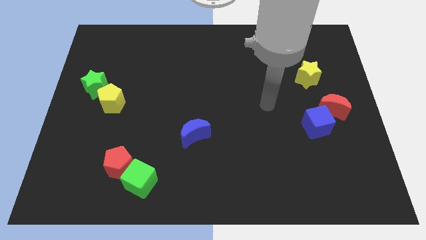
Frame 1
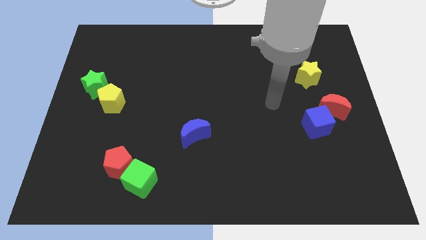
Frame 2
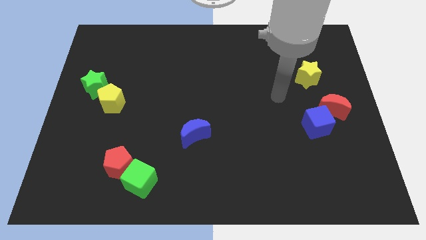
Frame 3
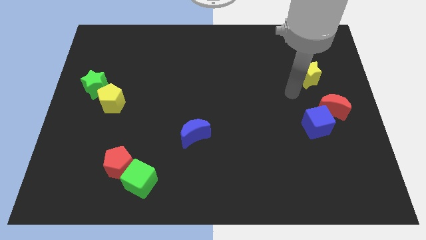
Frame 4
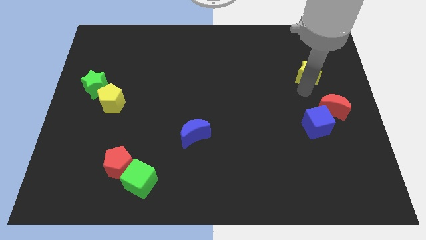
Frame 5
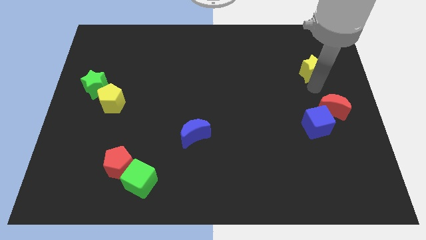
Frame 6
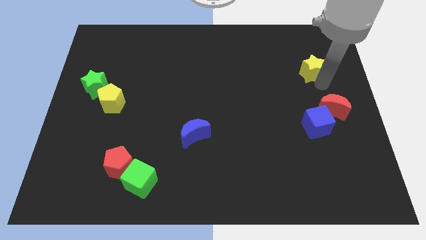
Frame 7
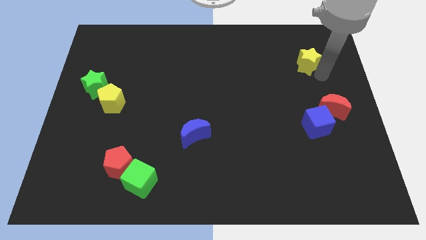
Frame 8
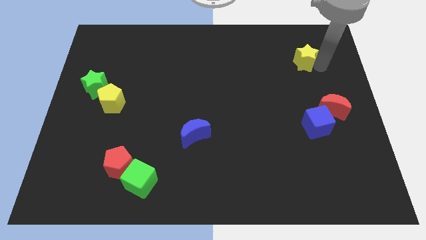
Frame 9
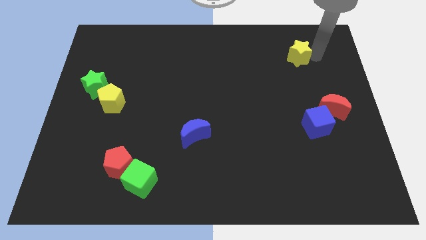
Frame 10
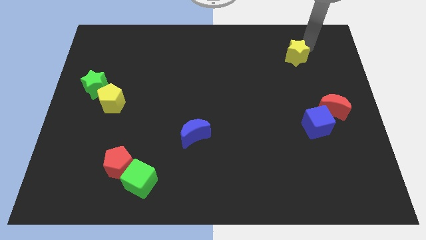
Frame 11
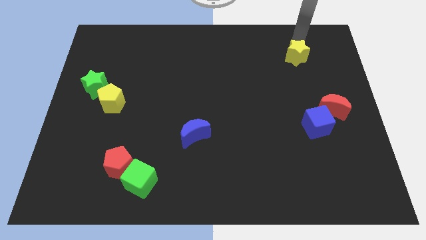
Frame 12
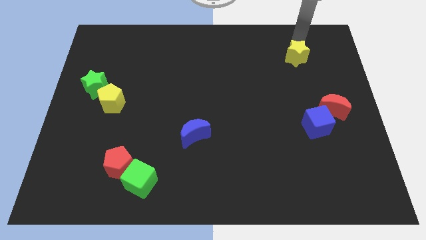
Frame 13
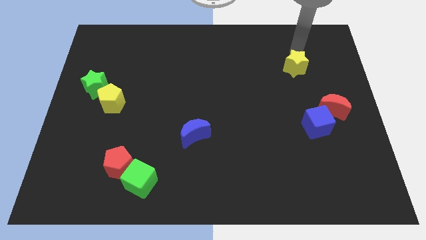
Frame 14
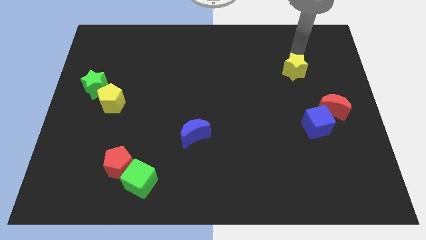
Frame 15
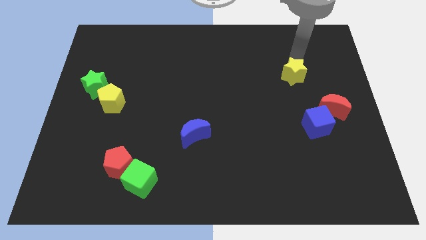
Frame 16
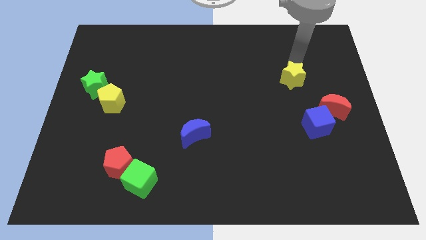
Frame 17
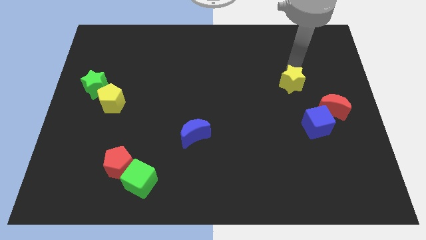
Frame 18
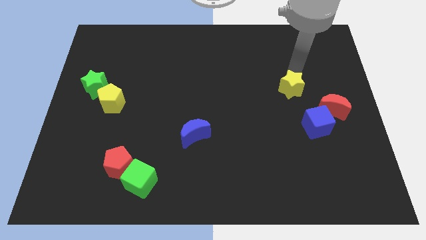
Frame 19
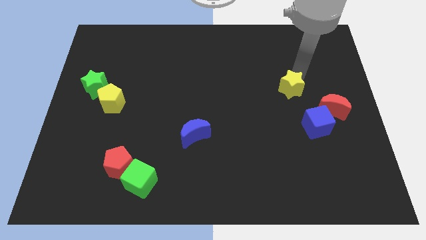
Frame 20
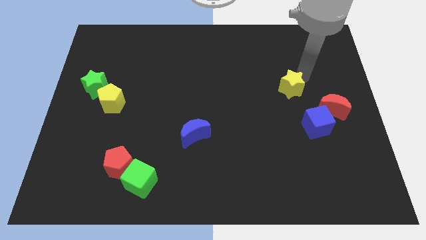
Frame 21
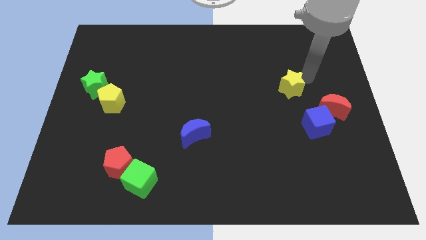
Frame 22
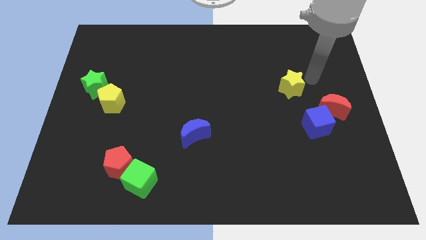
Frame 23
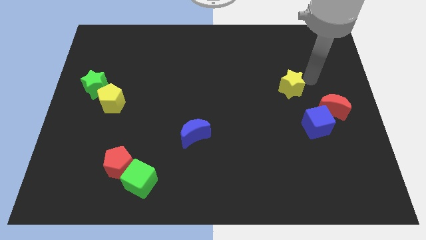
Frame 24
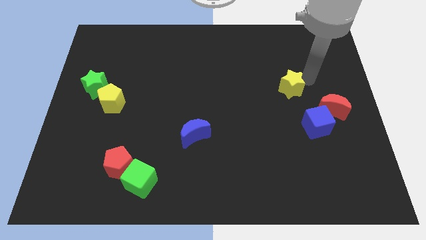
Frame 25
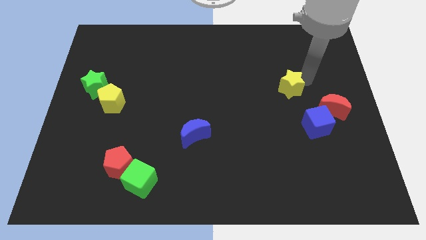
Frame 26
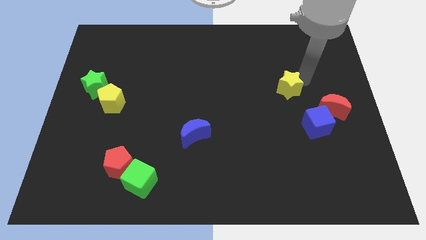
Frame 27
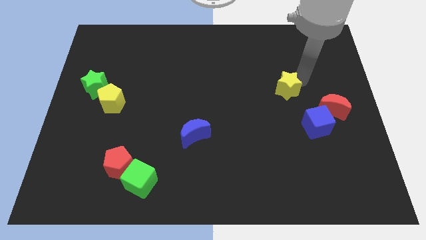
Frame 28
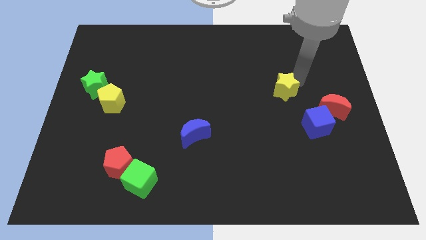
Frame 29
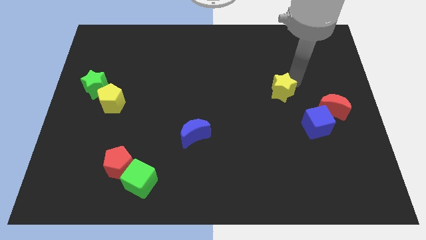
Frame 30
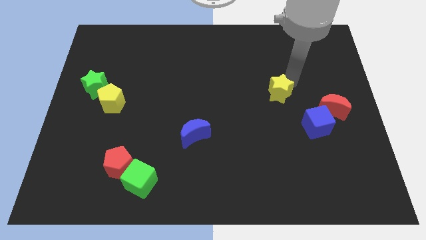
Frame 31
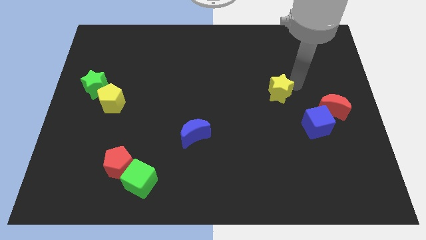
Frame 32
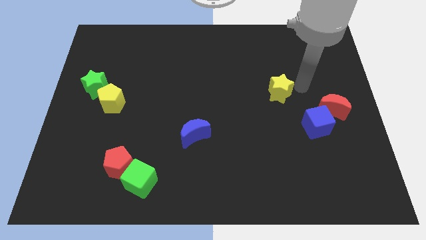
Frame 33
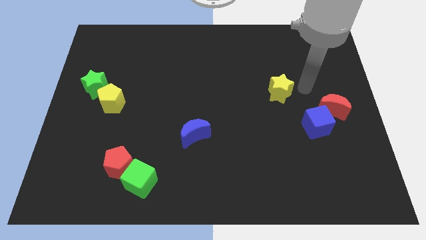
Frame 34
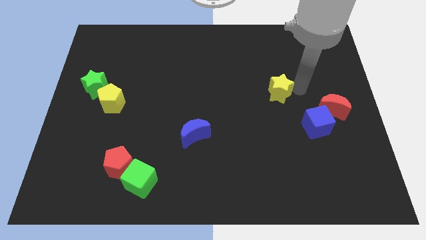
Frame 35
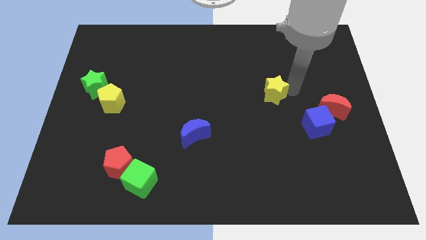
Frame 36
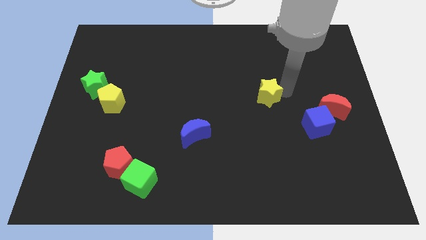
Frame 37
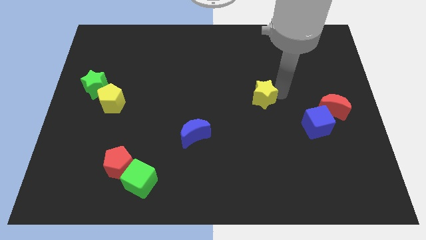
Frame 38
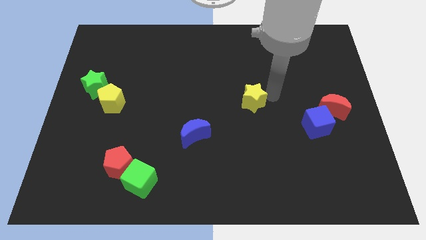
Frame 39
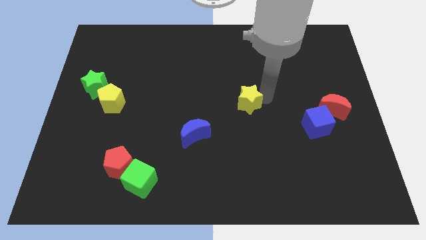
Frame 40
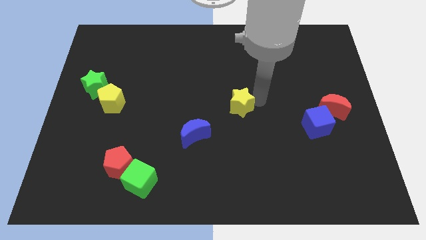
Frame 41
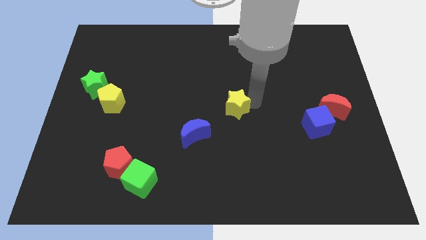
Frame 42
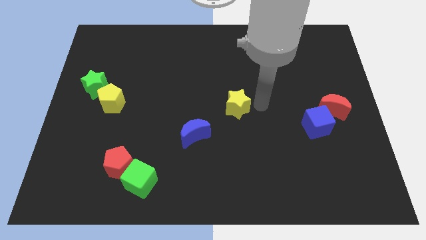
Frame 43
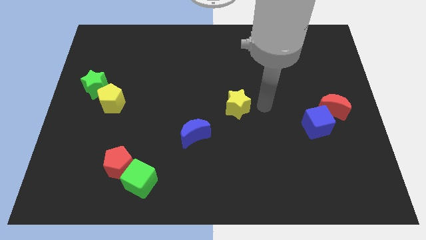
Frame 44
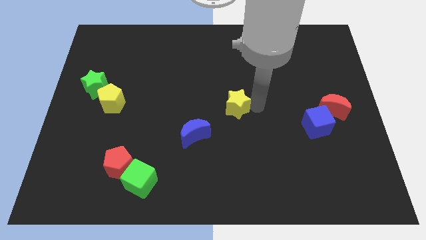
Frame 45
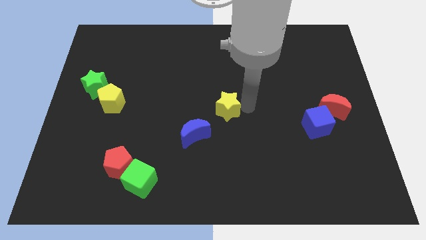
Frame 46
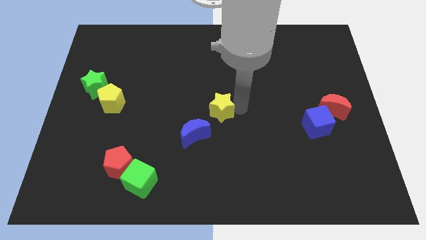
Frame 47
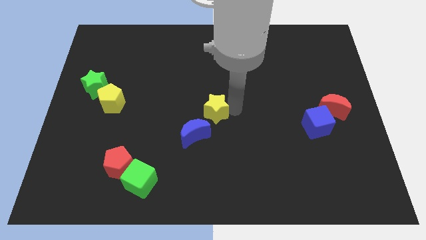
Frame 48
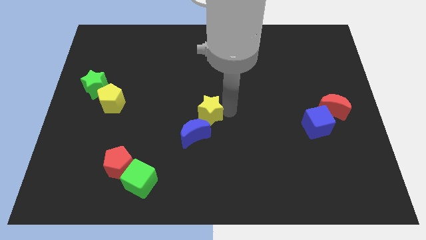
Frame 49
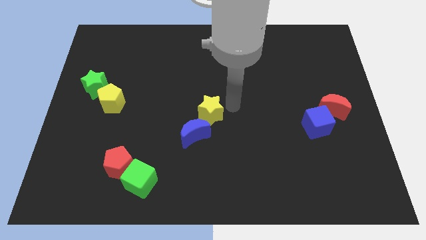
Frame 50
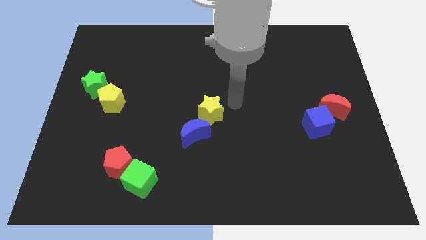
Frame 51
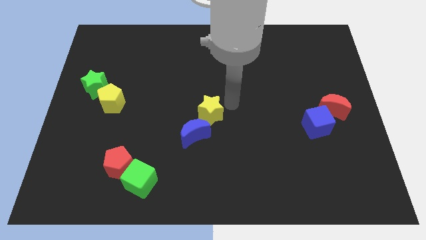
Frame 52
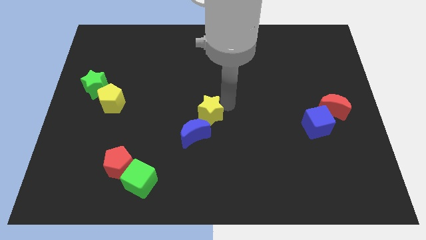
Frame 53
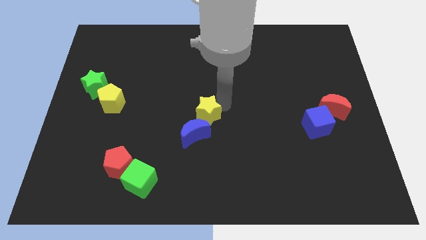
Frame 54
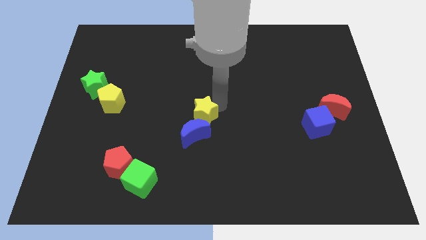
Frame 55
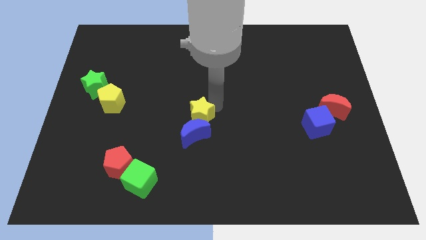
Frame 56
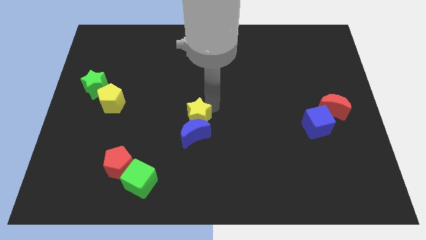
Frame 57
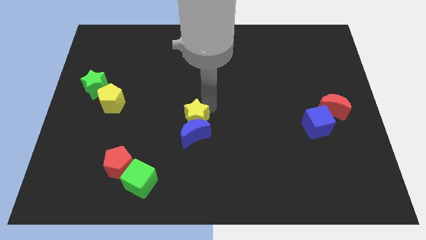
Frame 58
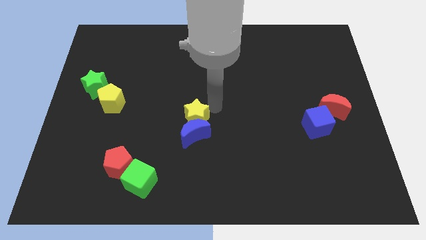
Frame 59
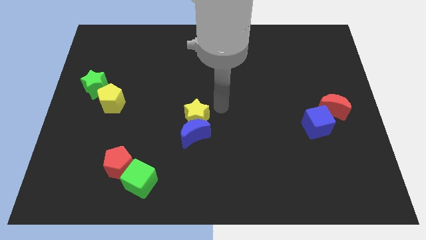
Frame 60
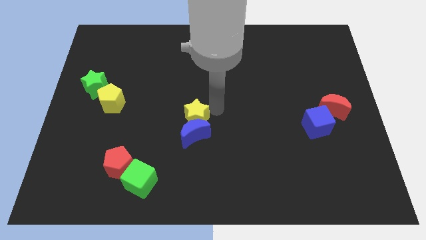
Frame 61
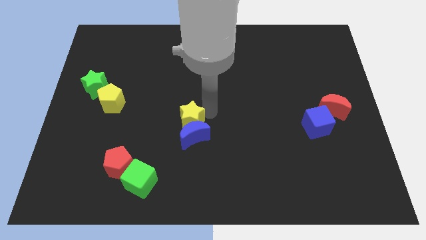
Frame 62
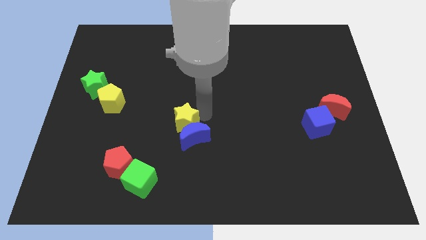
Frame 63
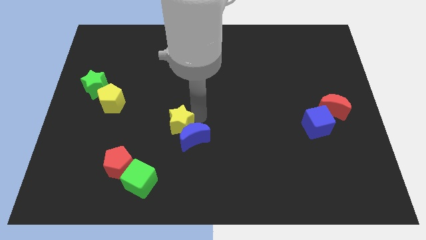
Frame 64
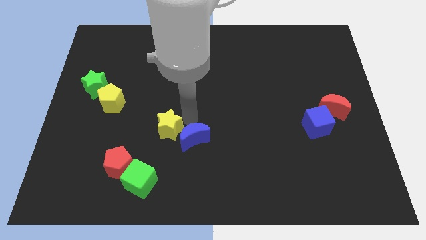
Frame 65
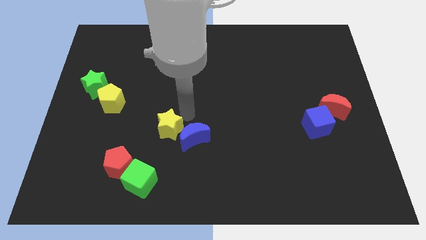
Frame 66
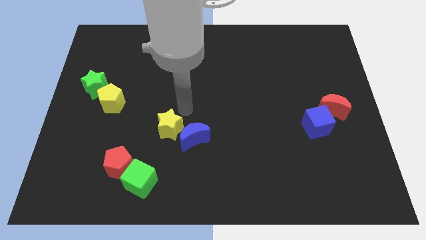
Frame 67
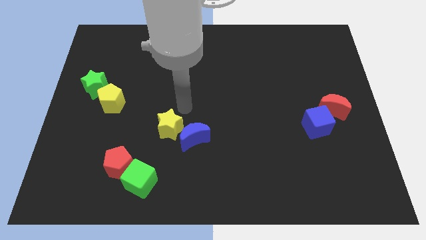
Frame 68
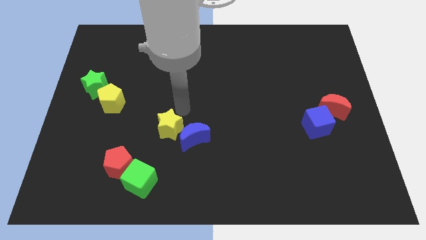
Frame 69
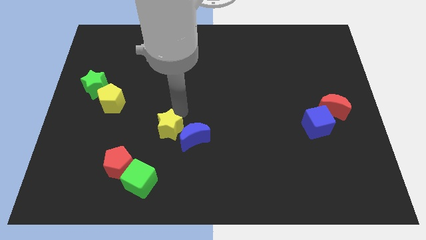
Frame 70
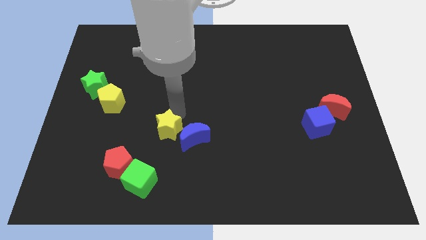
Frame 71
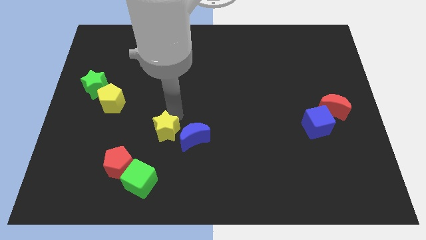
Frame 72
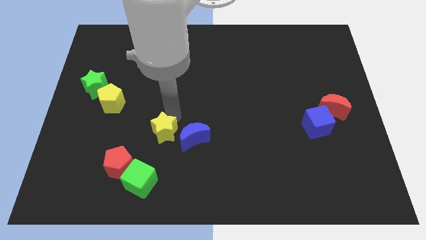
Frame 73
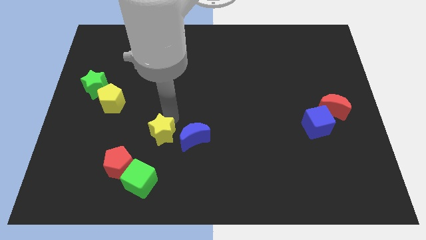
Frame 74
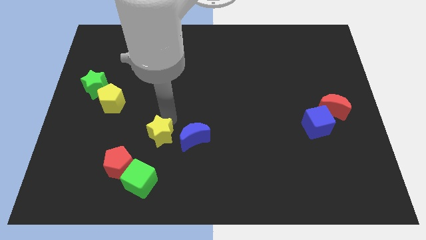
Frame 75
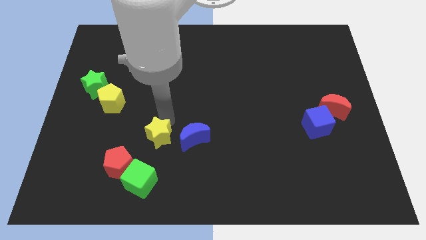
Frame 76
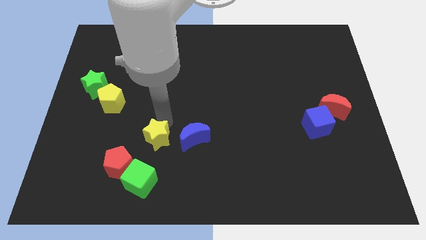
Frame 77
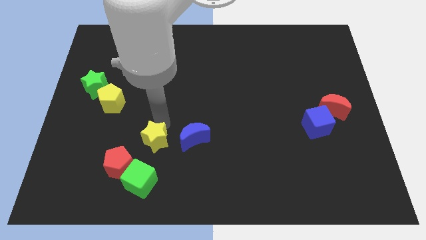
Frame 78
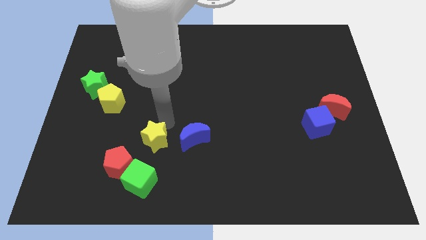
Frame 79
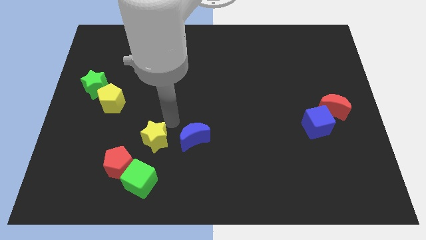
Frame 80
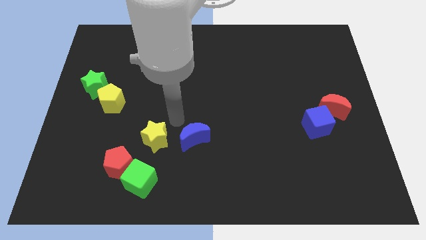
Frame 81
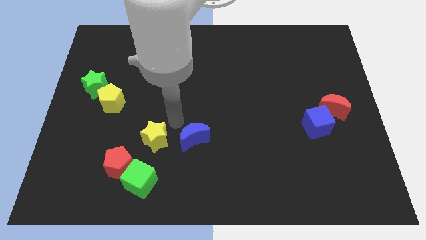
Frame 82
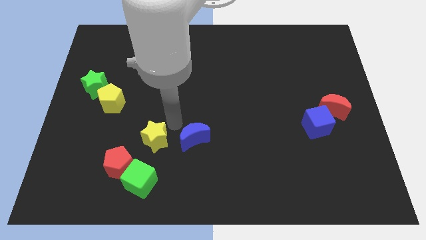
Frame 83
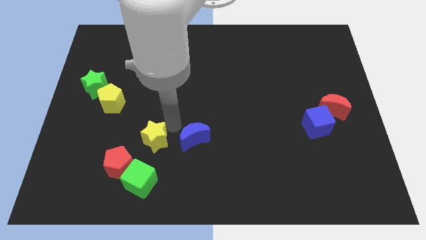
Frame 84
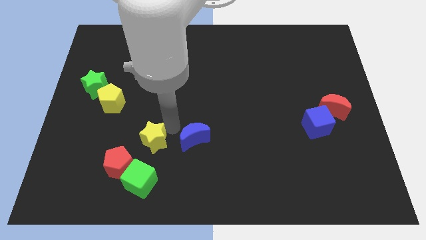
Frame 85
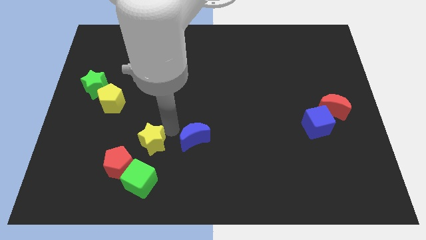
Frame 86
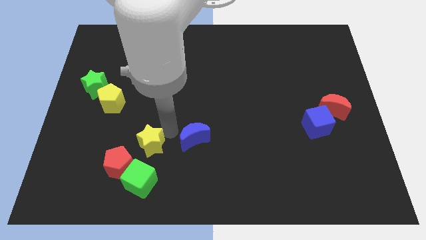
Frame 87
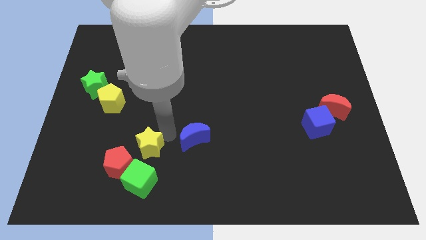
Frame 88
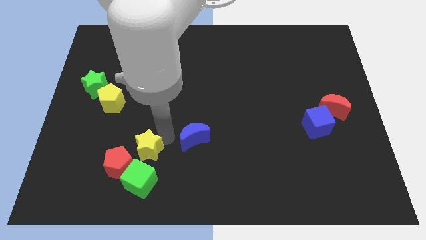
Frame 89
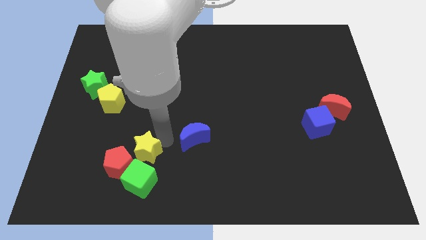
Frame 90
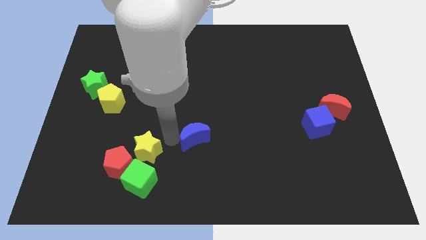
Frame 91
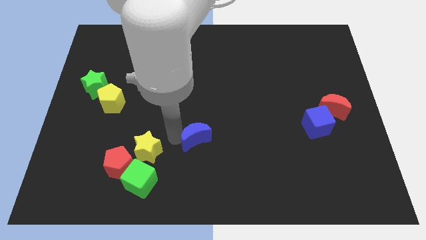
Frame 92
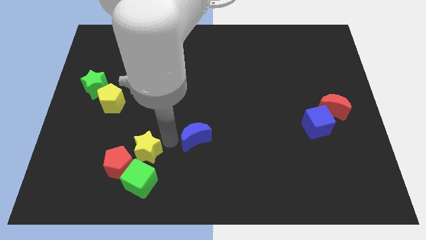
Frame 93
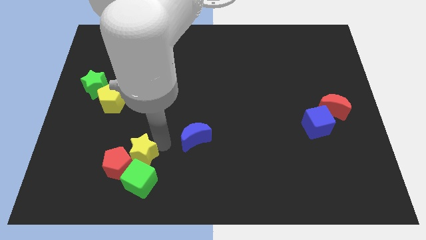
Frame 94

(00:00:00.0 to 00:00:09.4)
put the yellow star close to the red pentagon
